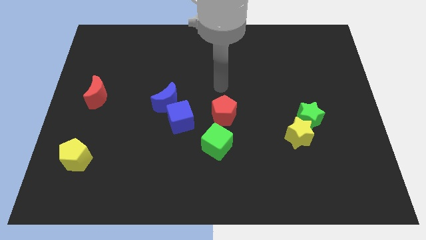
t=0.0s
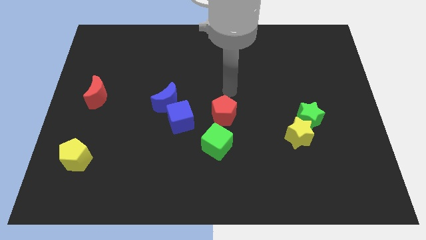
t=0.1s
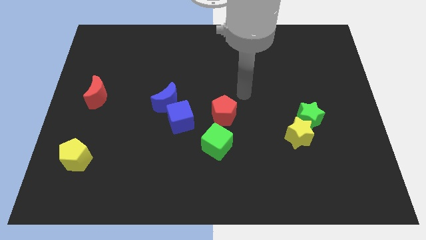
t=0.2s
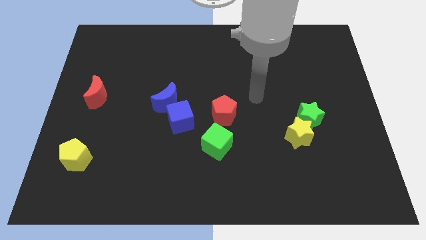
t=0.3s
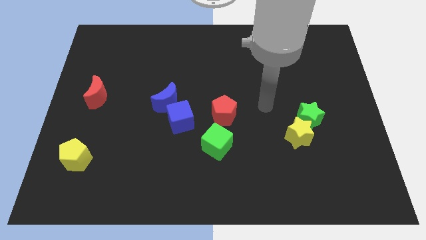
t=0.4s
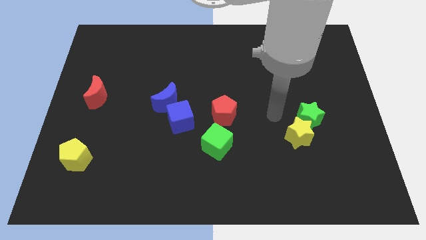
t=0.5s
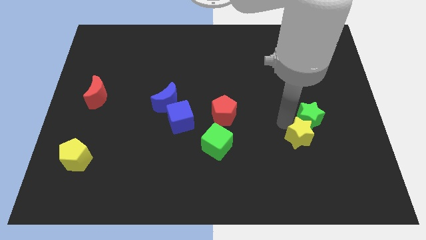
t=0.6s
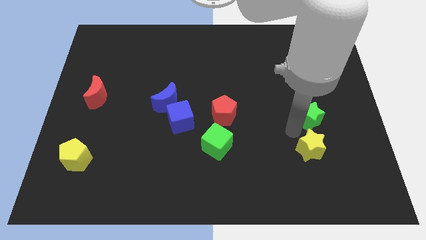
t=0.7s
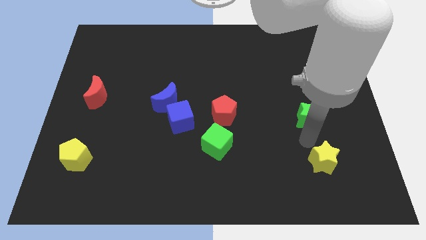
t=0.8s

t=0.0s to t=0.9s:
pull the green star apart from the yellow star

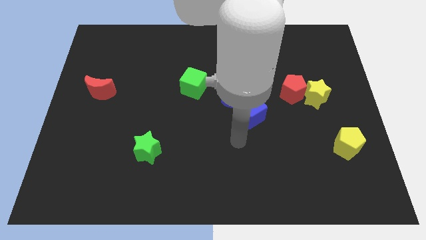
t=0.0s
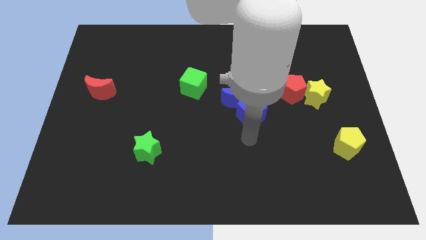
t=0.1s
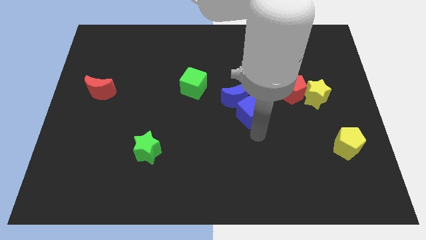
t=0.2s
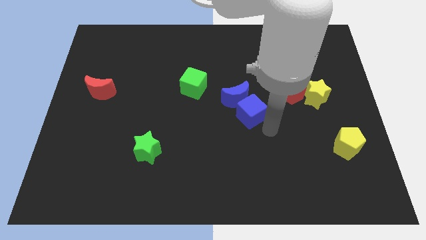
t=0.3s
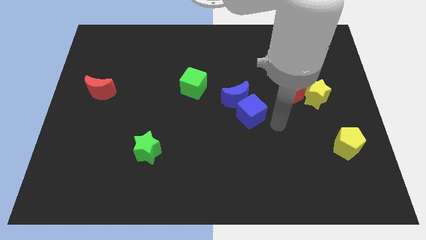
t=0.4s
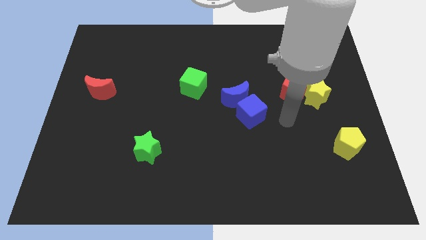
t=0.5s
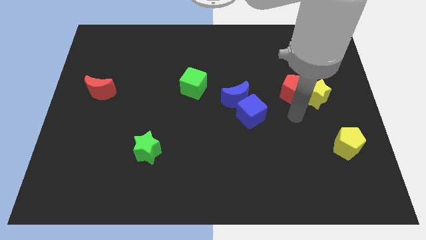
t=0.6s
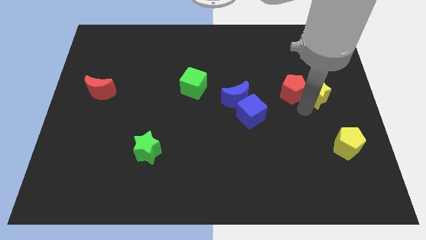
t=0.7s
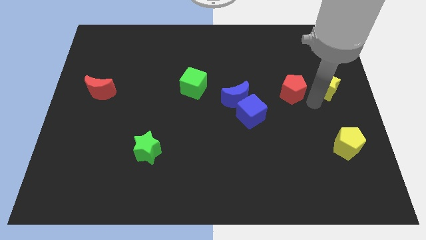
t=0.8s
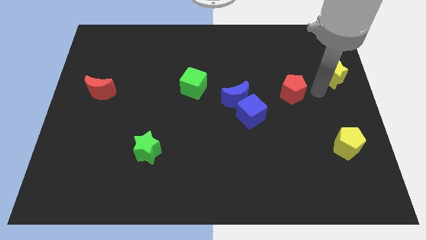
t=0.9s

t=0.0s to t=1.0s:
pull the red pentagon apart from the yellow star

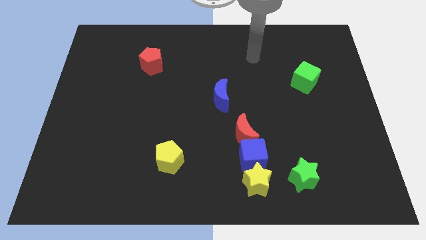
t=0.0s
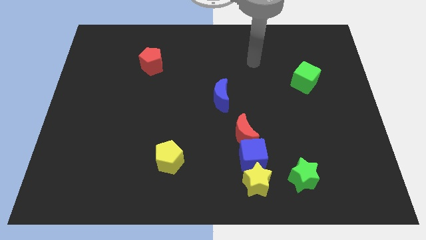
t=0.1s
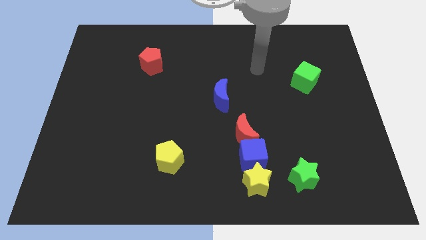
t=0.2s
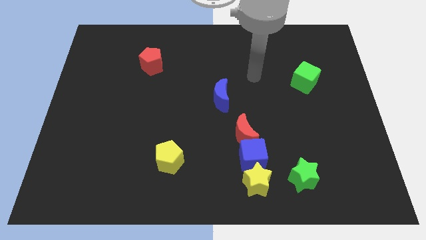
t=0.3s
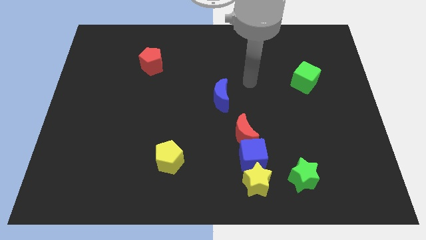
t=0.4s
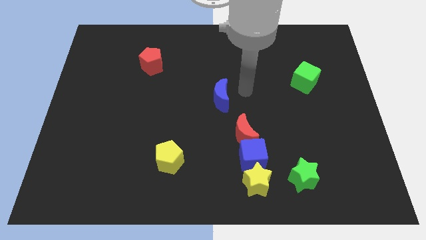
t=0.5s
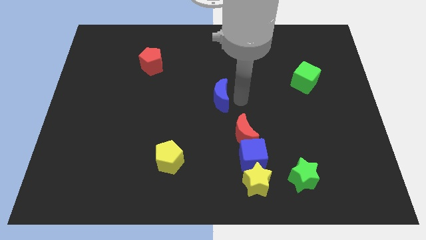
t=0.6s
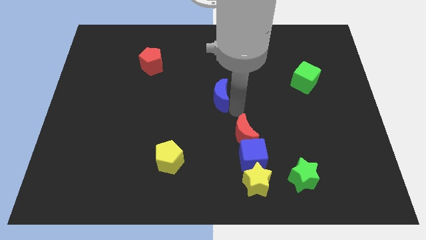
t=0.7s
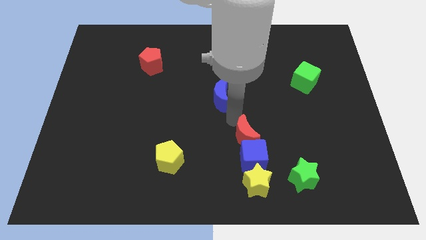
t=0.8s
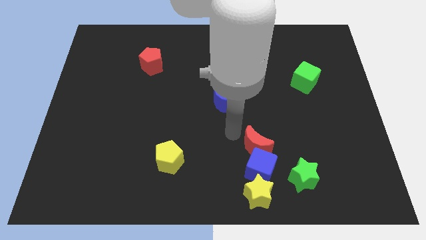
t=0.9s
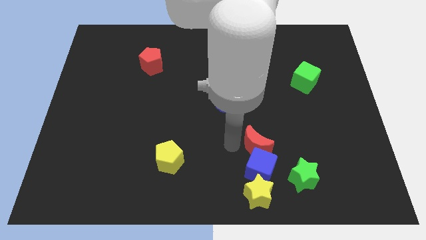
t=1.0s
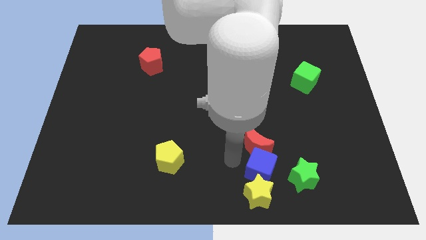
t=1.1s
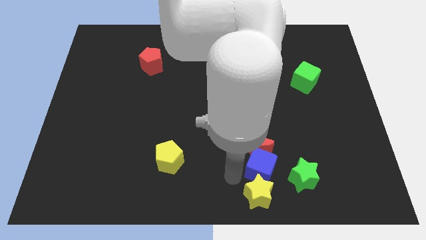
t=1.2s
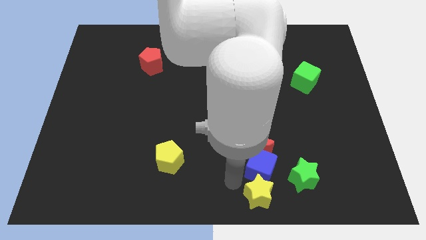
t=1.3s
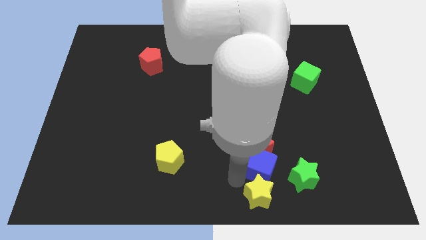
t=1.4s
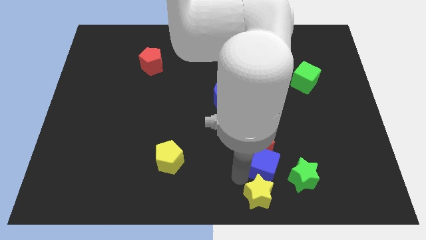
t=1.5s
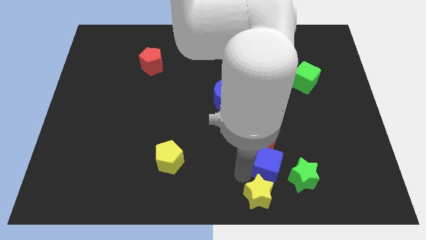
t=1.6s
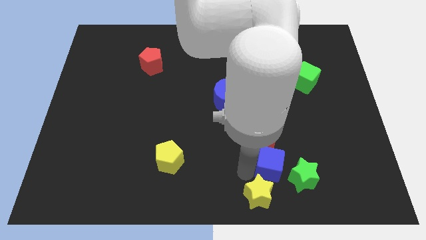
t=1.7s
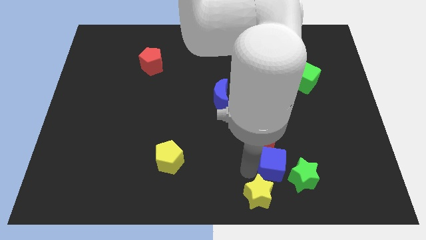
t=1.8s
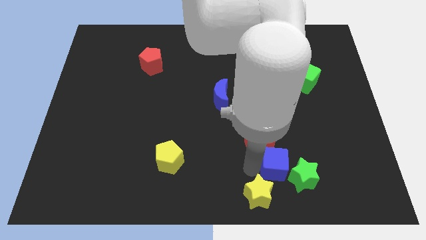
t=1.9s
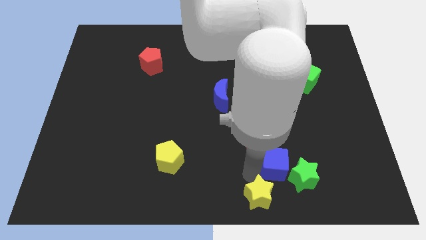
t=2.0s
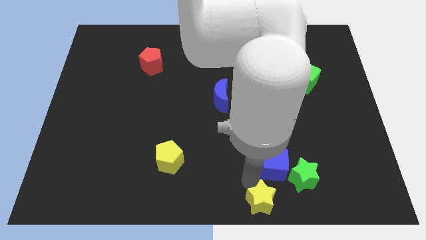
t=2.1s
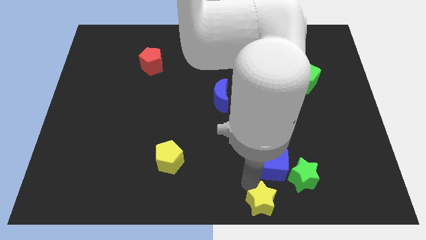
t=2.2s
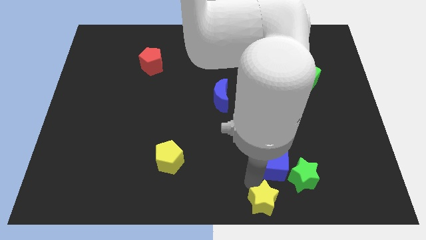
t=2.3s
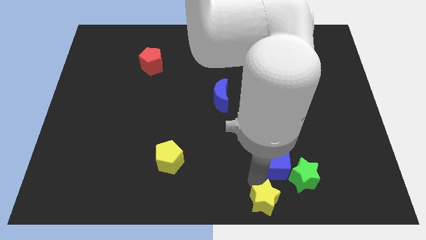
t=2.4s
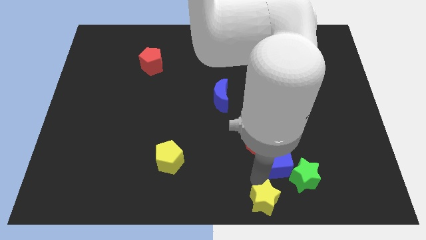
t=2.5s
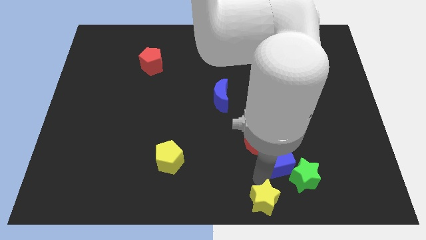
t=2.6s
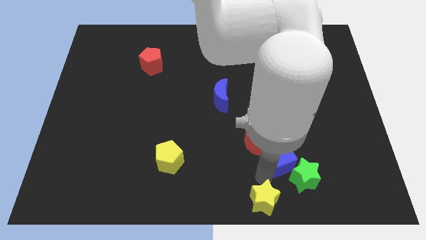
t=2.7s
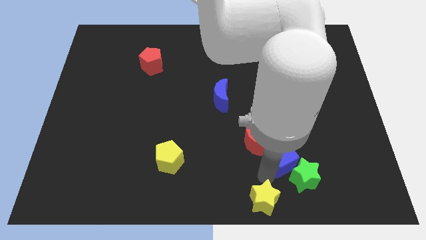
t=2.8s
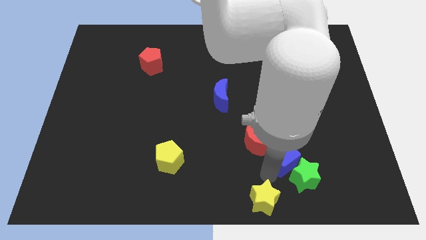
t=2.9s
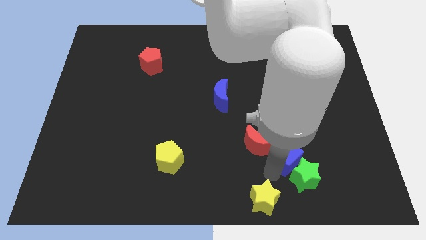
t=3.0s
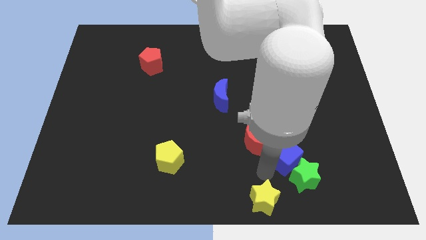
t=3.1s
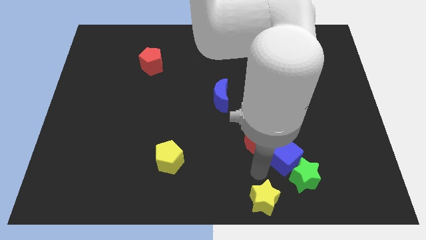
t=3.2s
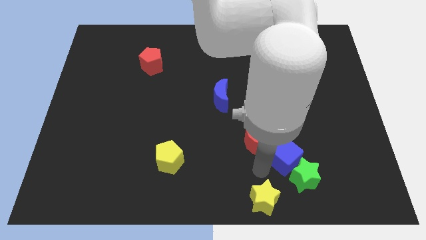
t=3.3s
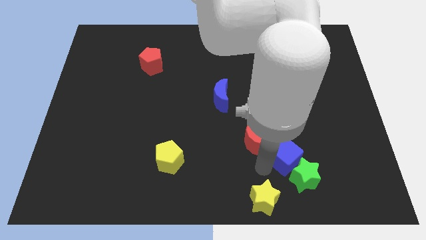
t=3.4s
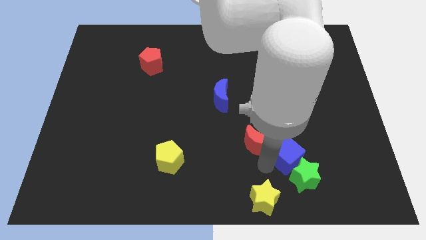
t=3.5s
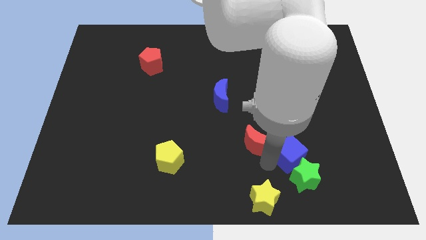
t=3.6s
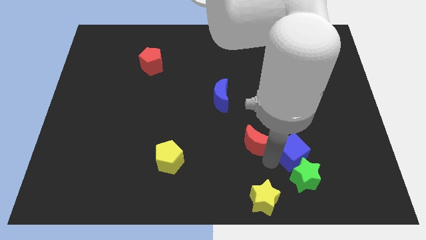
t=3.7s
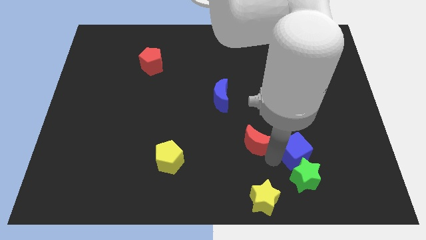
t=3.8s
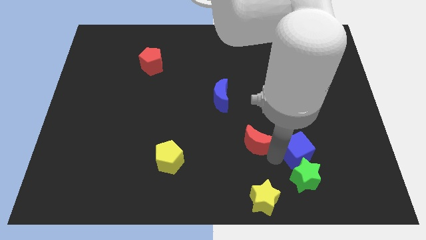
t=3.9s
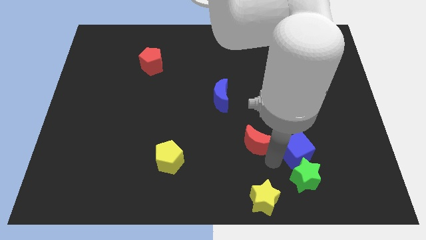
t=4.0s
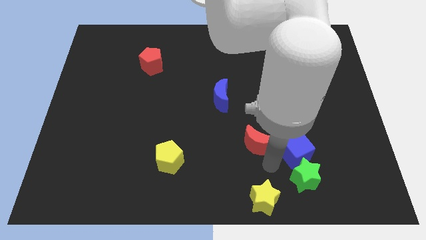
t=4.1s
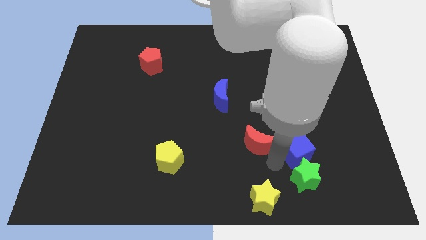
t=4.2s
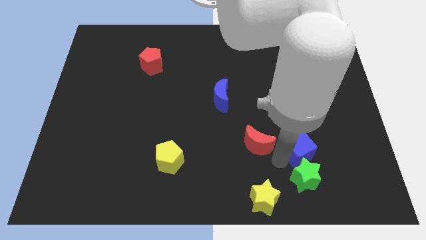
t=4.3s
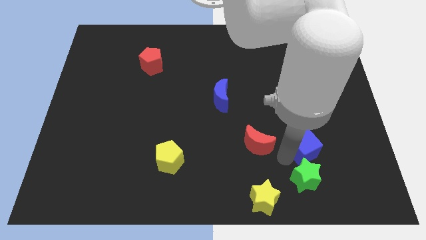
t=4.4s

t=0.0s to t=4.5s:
separate the blue cube from the yellow star and red moon

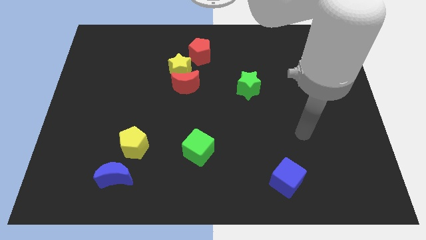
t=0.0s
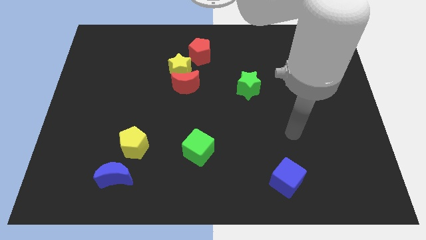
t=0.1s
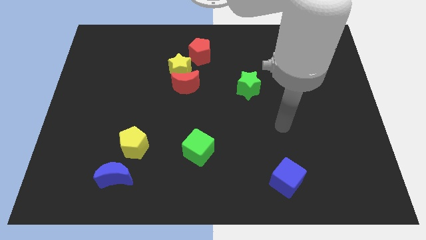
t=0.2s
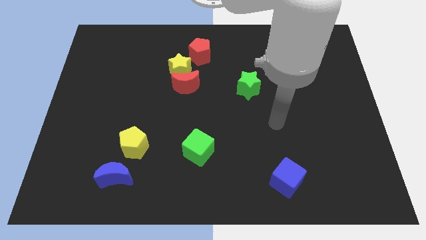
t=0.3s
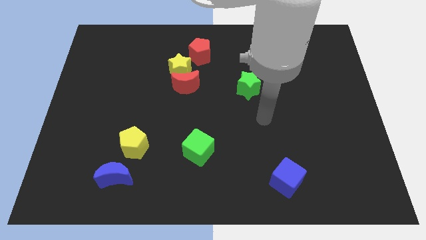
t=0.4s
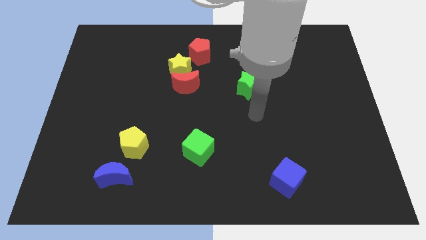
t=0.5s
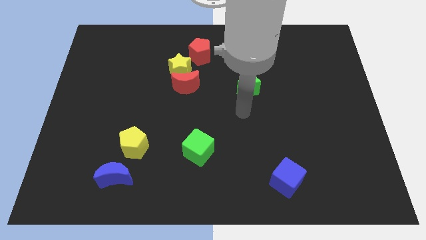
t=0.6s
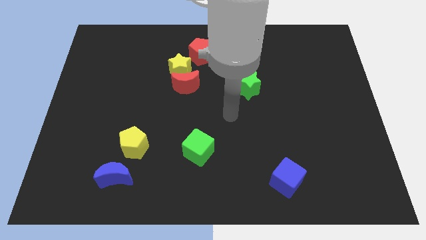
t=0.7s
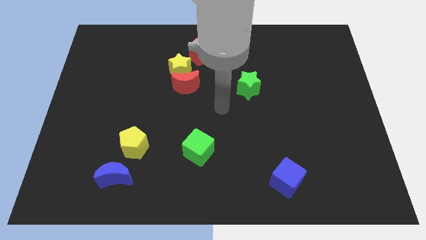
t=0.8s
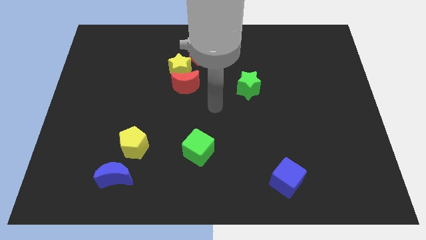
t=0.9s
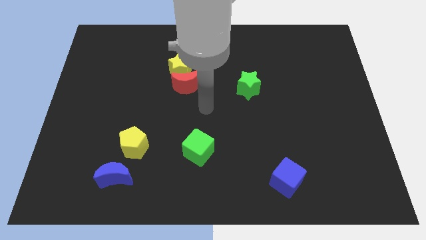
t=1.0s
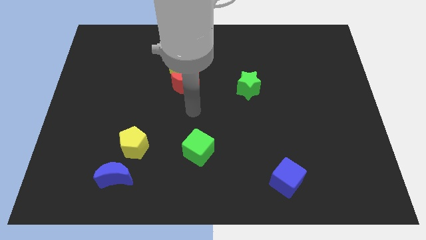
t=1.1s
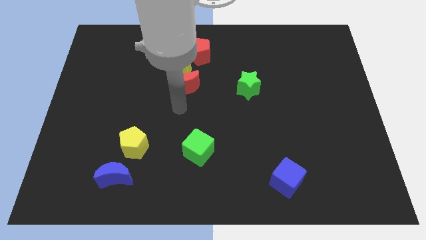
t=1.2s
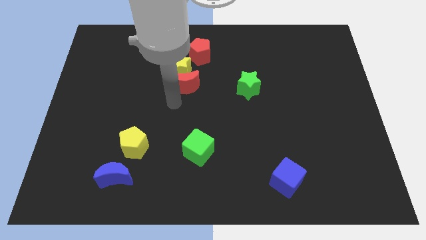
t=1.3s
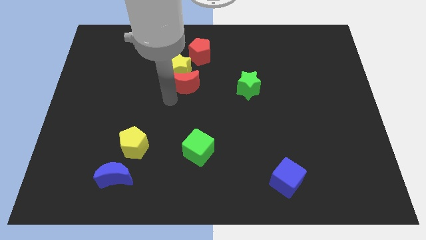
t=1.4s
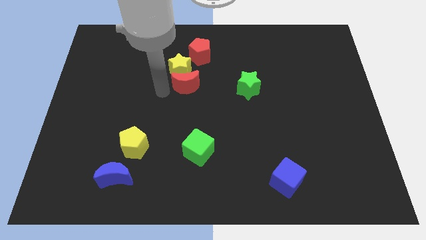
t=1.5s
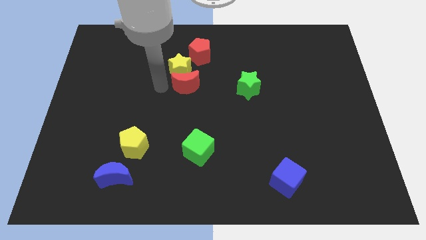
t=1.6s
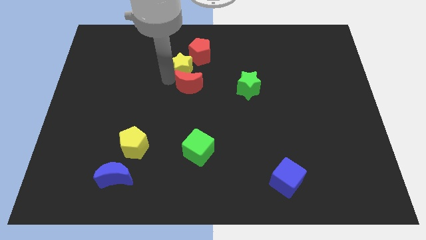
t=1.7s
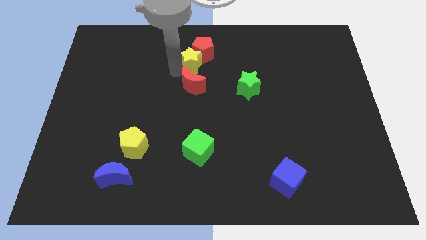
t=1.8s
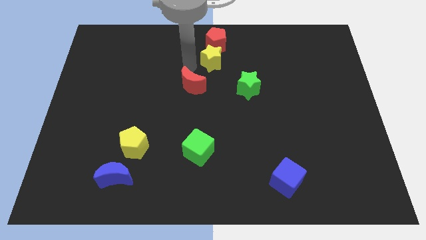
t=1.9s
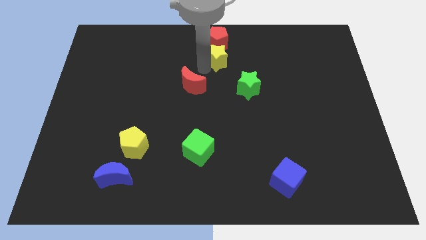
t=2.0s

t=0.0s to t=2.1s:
pull the red moon apart from the yellow star

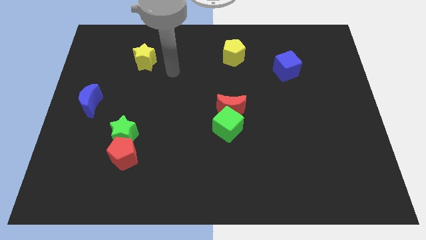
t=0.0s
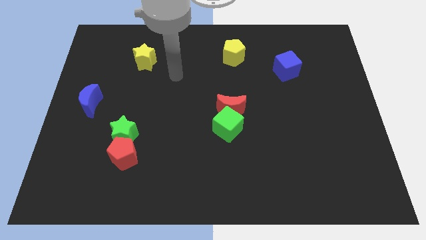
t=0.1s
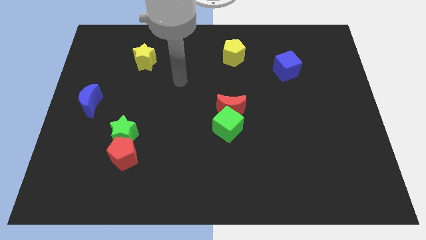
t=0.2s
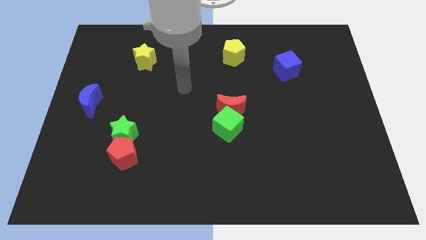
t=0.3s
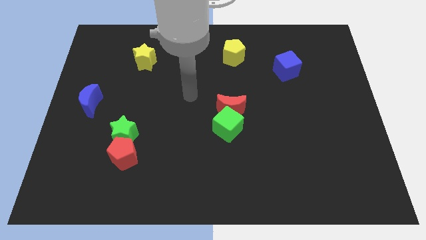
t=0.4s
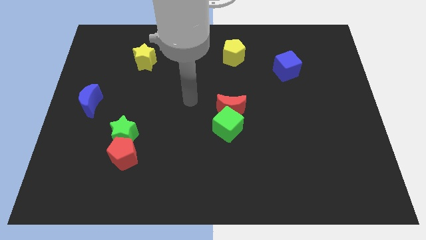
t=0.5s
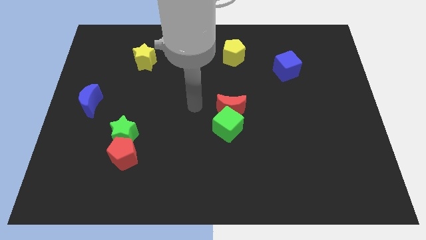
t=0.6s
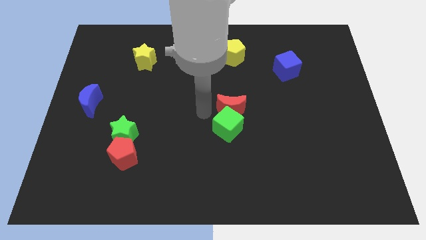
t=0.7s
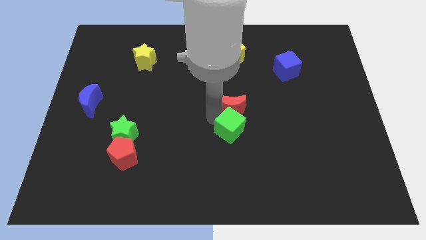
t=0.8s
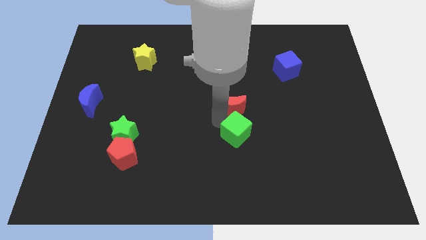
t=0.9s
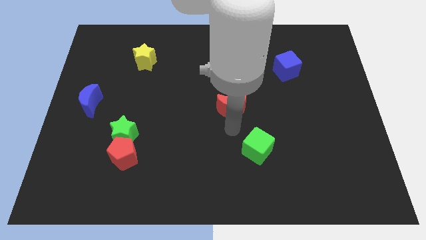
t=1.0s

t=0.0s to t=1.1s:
pull the red moon apart from the green cube
